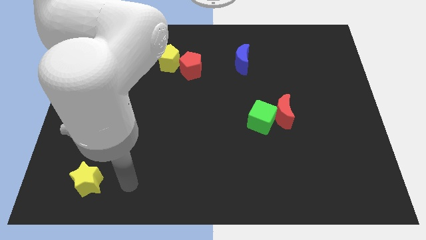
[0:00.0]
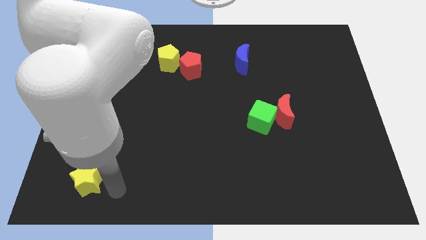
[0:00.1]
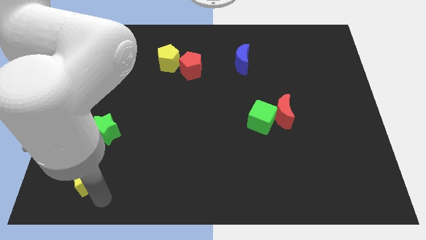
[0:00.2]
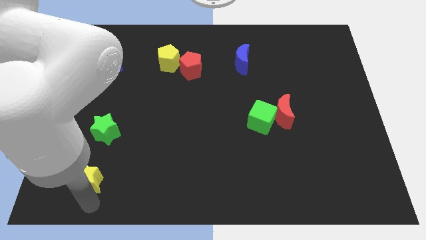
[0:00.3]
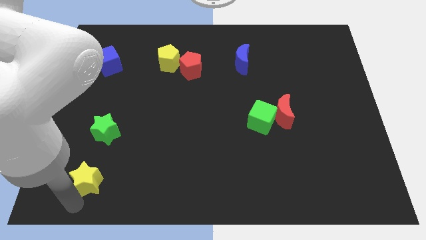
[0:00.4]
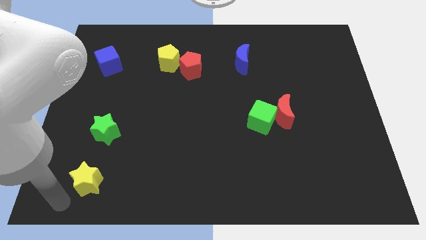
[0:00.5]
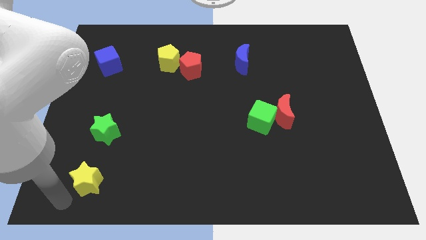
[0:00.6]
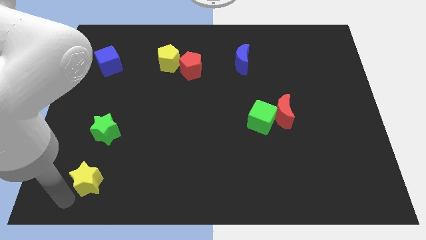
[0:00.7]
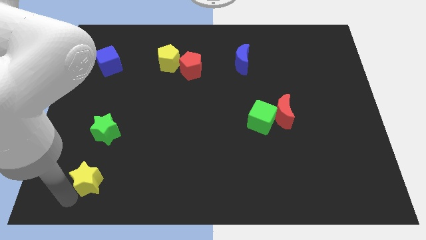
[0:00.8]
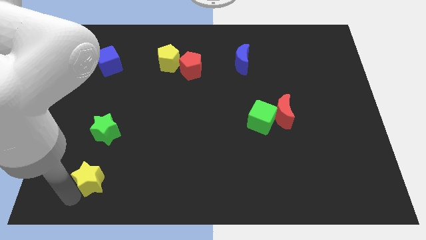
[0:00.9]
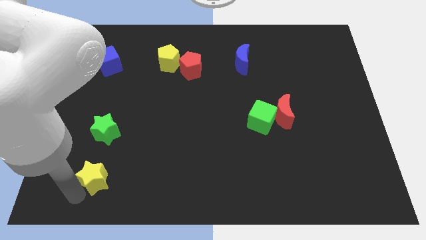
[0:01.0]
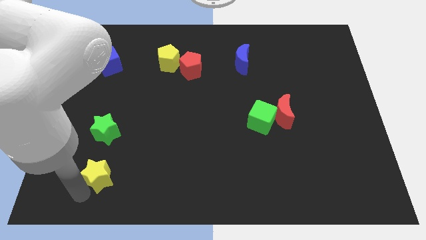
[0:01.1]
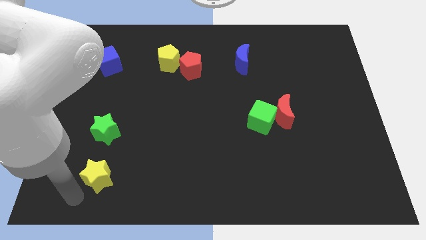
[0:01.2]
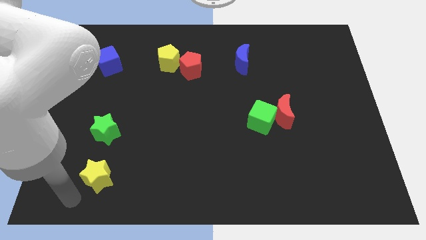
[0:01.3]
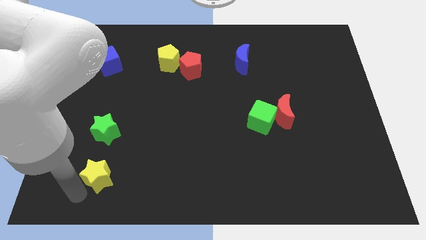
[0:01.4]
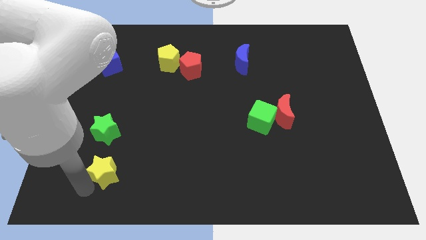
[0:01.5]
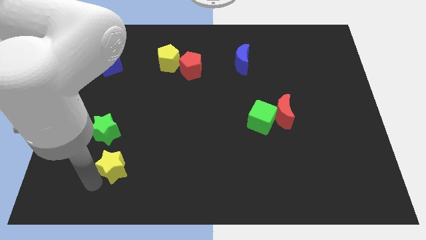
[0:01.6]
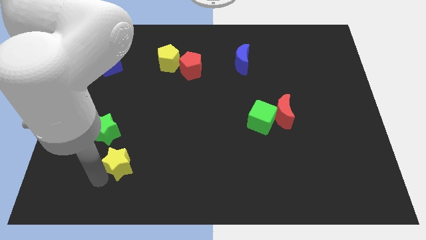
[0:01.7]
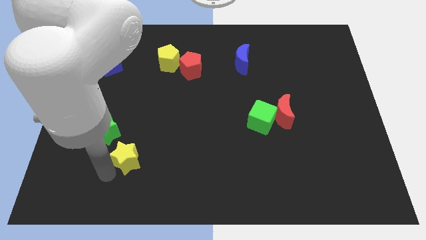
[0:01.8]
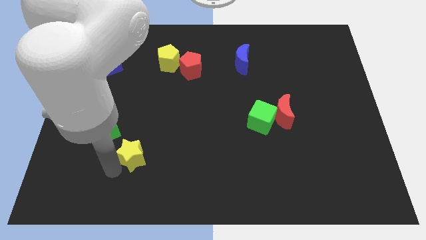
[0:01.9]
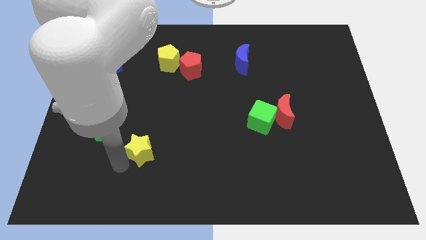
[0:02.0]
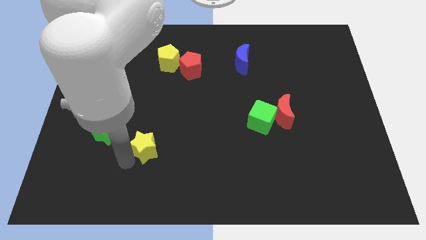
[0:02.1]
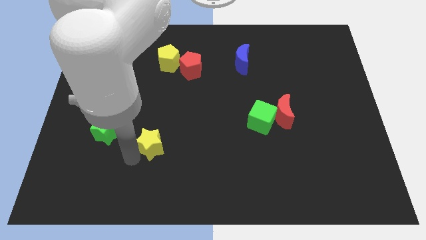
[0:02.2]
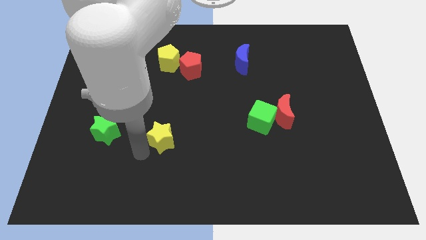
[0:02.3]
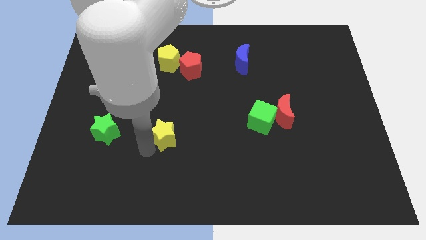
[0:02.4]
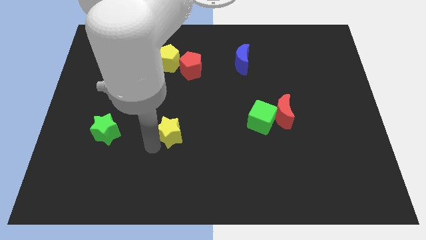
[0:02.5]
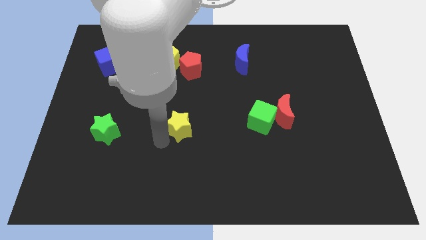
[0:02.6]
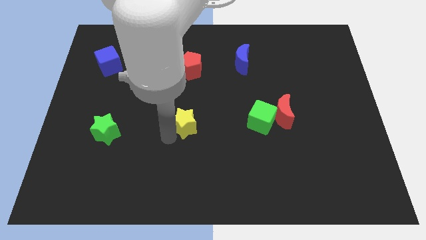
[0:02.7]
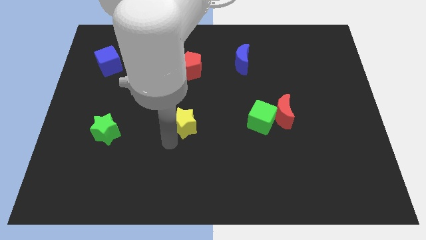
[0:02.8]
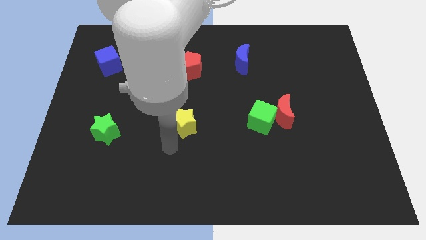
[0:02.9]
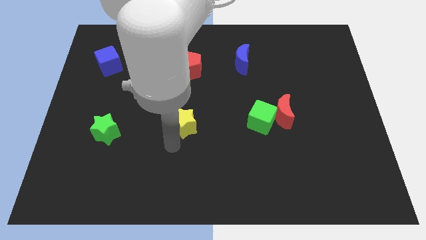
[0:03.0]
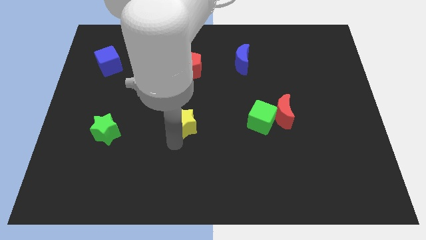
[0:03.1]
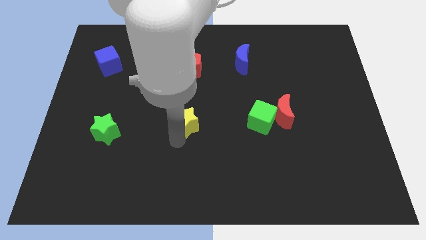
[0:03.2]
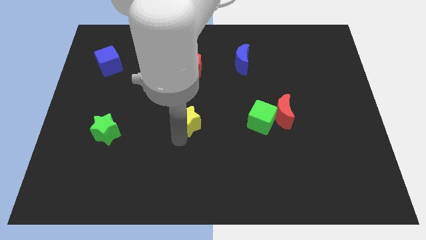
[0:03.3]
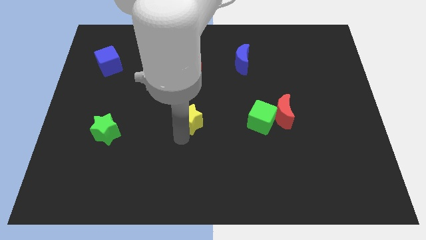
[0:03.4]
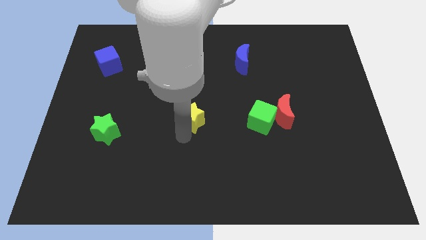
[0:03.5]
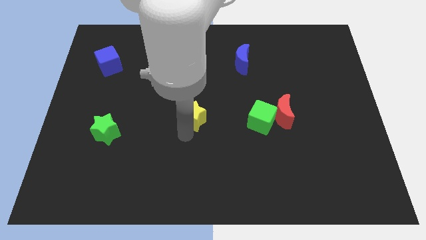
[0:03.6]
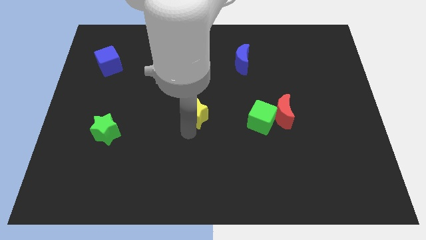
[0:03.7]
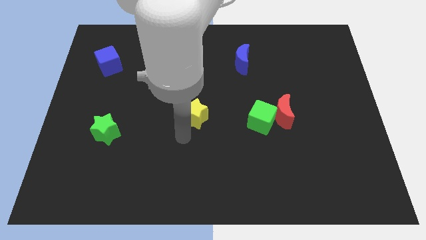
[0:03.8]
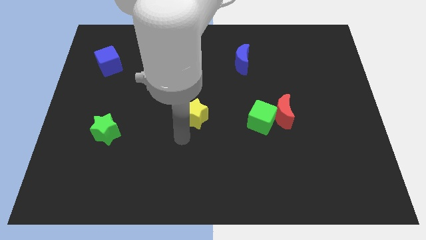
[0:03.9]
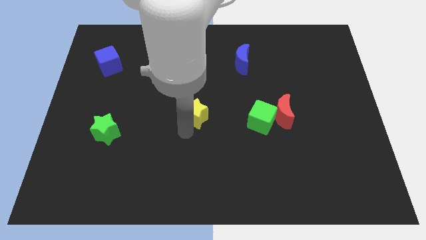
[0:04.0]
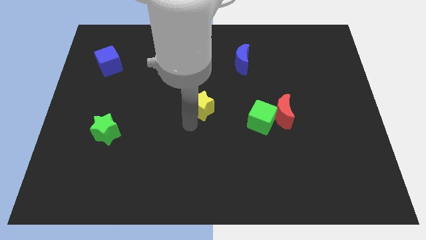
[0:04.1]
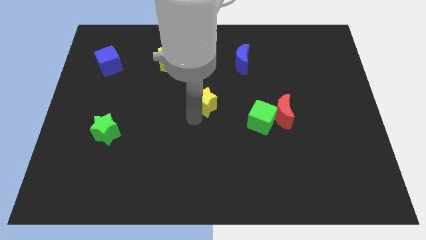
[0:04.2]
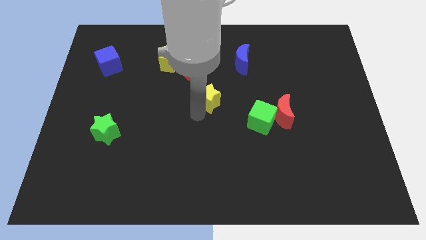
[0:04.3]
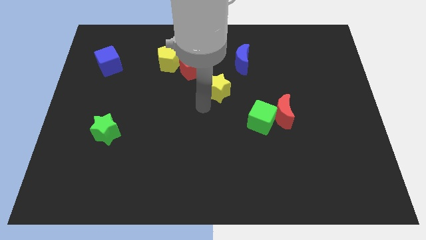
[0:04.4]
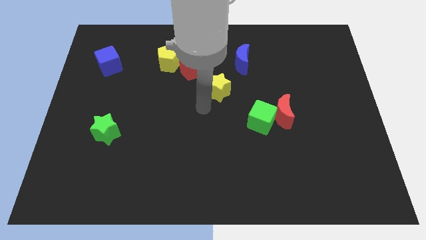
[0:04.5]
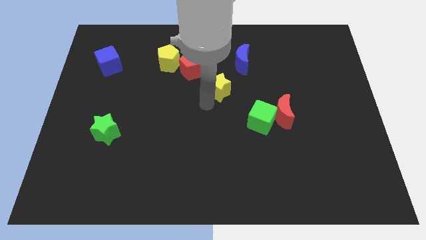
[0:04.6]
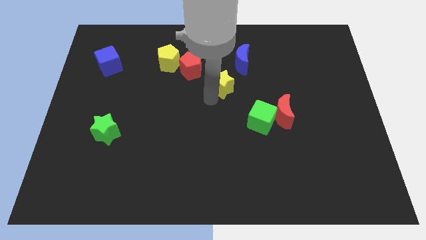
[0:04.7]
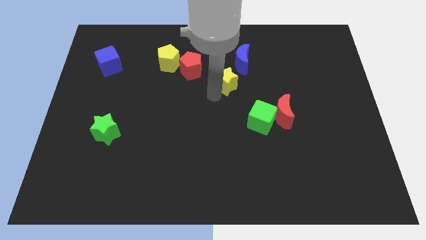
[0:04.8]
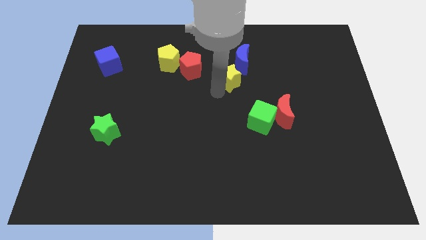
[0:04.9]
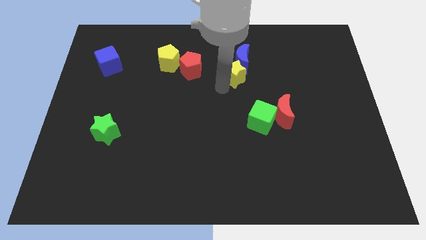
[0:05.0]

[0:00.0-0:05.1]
move the yellow star towards the blue moon

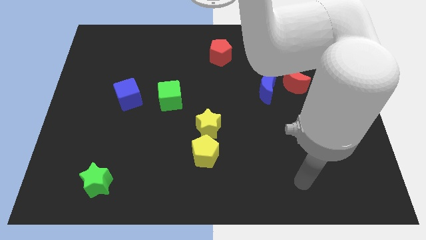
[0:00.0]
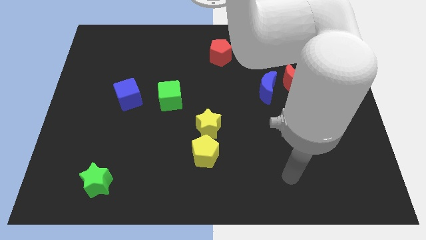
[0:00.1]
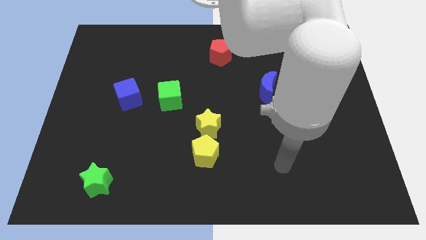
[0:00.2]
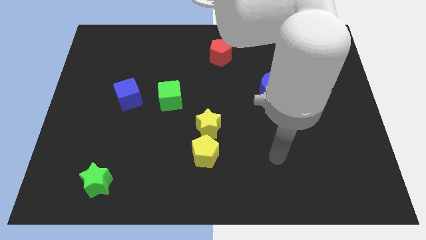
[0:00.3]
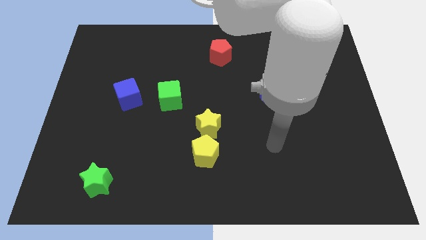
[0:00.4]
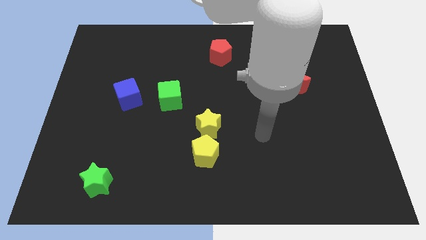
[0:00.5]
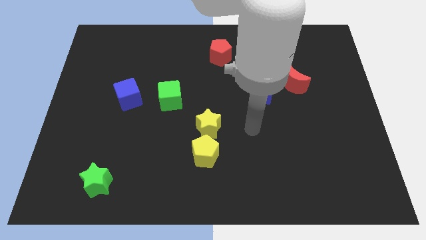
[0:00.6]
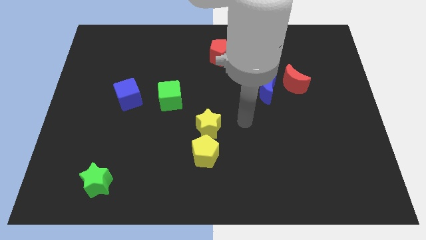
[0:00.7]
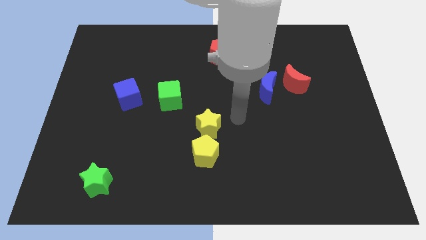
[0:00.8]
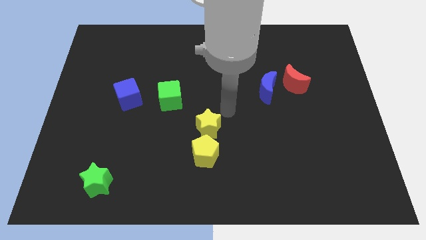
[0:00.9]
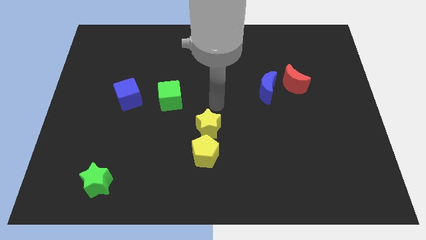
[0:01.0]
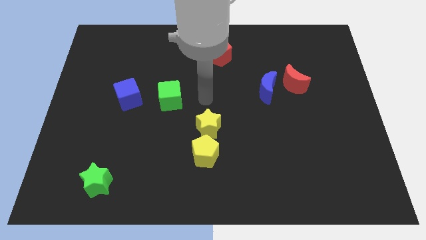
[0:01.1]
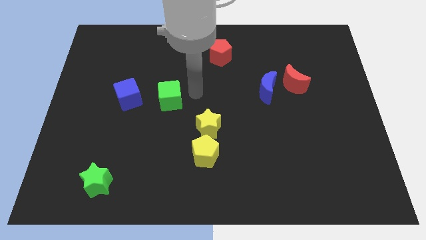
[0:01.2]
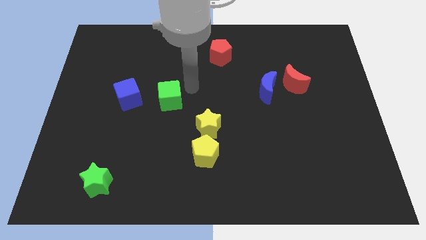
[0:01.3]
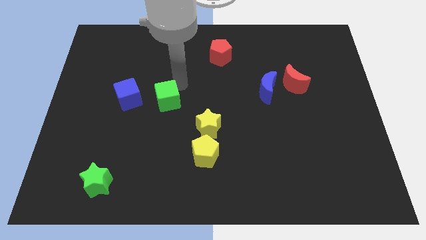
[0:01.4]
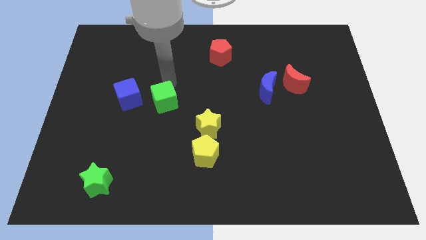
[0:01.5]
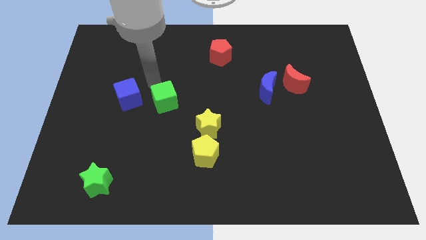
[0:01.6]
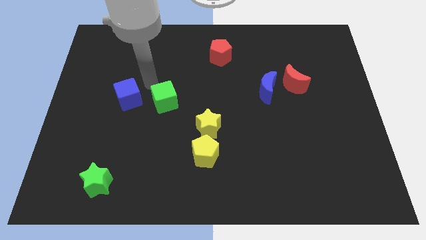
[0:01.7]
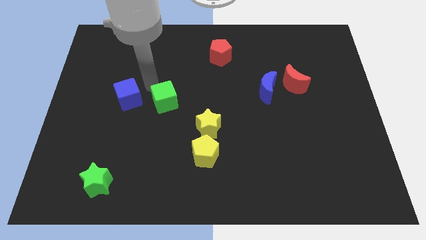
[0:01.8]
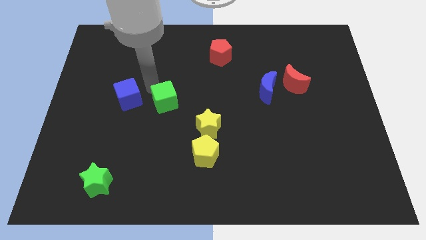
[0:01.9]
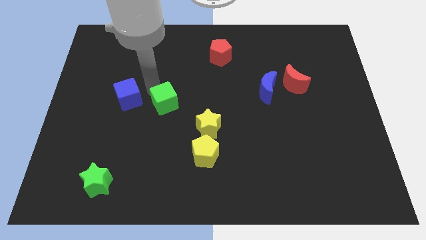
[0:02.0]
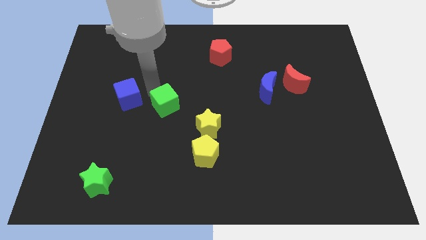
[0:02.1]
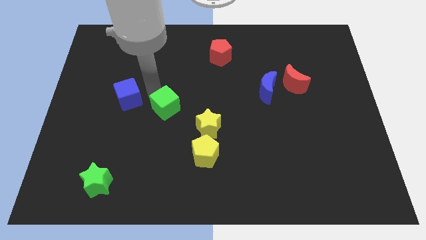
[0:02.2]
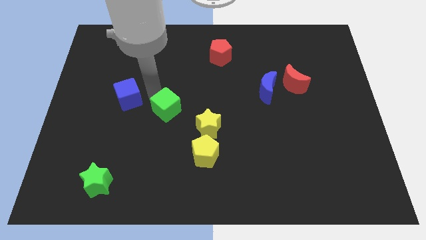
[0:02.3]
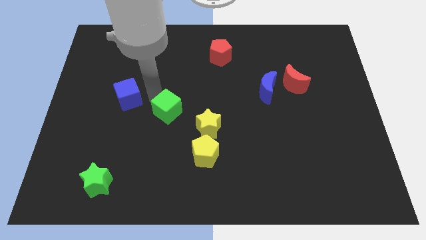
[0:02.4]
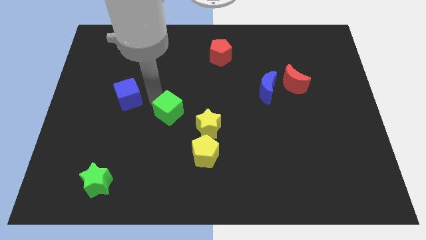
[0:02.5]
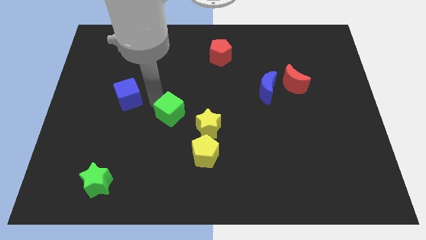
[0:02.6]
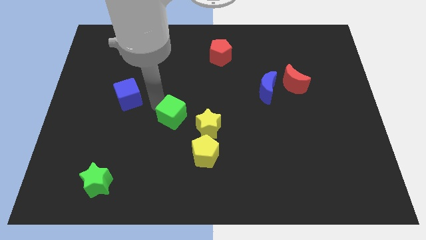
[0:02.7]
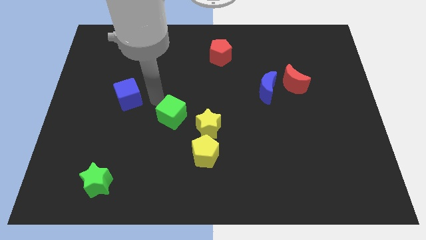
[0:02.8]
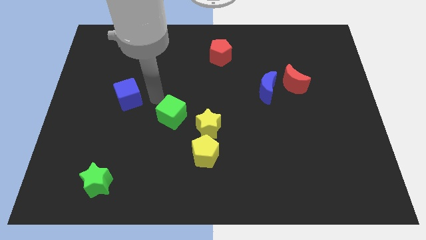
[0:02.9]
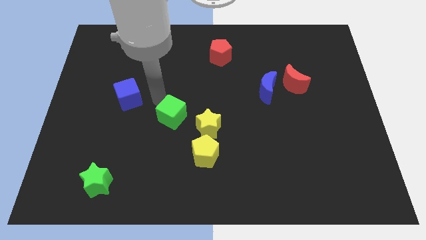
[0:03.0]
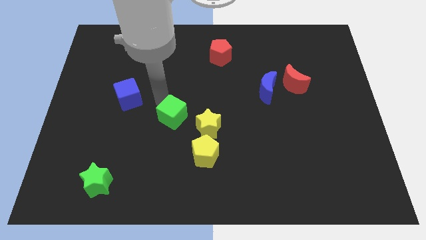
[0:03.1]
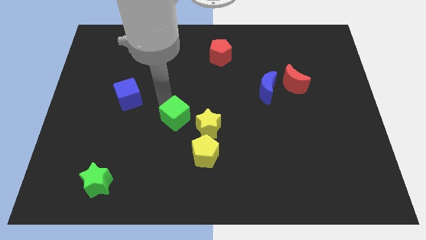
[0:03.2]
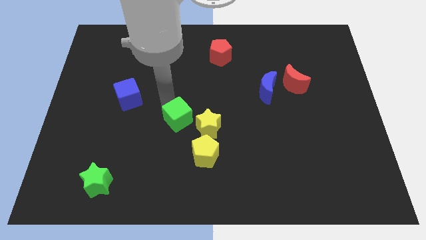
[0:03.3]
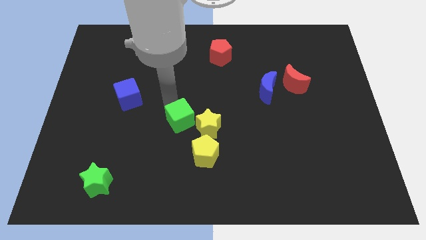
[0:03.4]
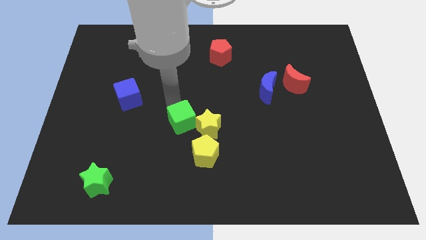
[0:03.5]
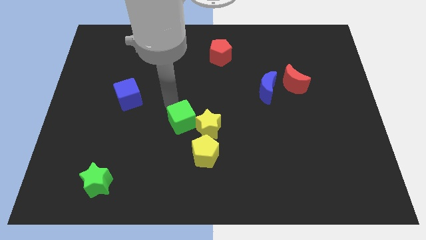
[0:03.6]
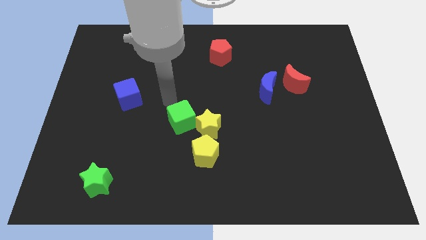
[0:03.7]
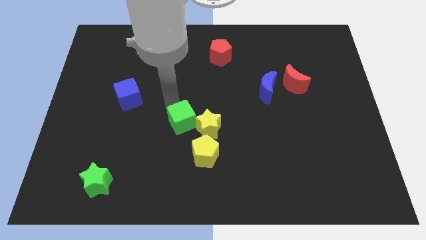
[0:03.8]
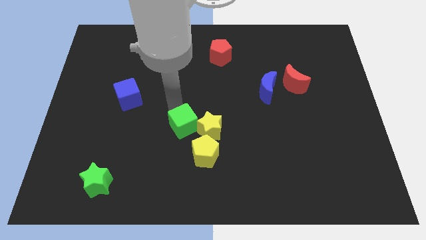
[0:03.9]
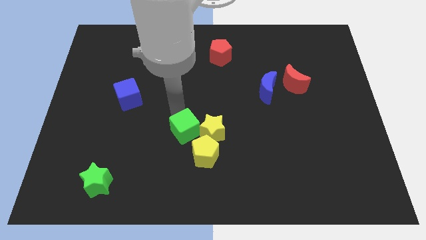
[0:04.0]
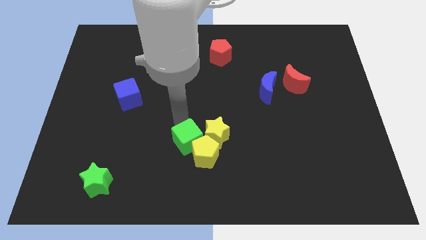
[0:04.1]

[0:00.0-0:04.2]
move the green cube towards the yellow pentagon
